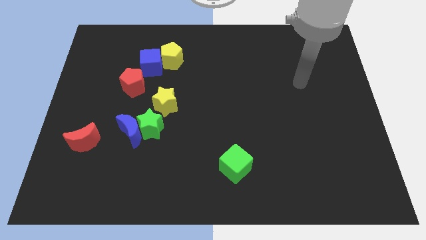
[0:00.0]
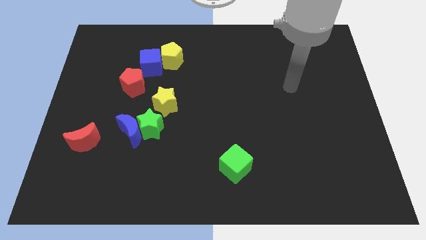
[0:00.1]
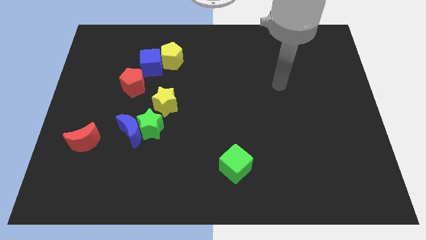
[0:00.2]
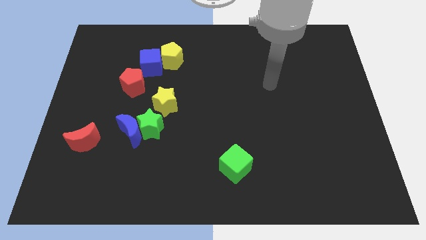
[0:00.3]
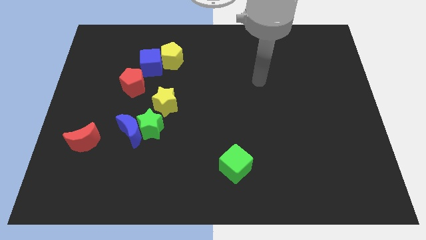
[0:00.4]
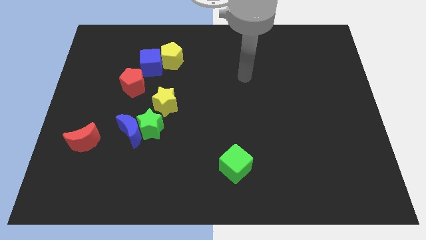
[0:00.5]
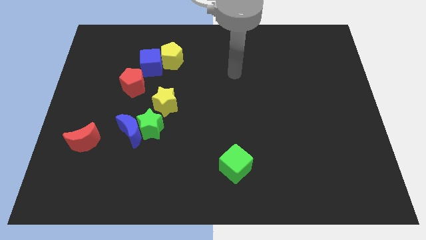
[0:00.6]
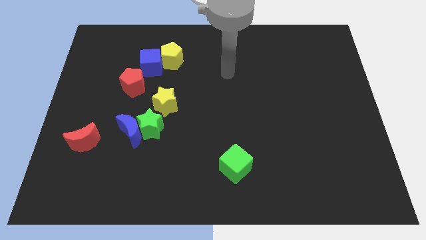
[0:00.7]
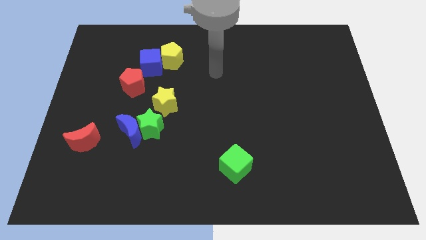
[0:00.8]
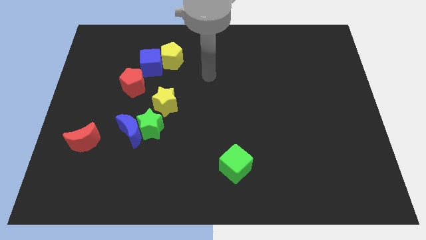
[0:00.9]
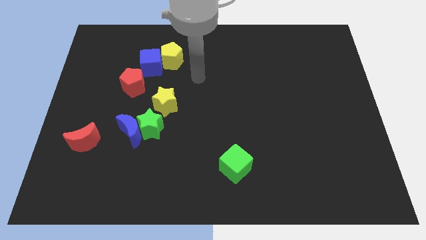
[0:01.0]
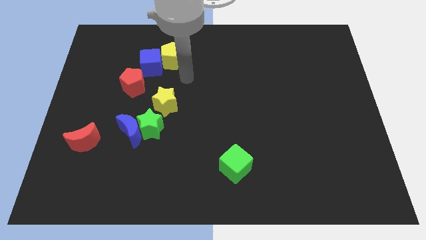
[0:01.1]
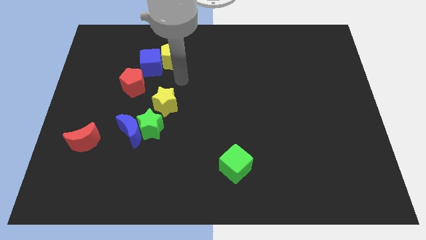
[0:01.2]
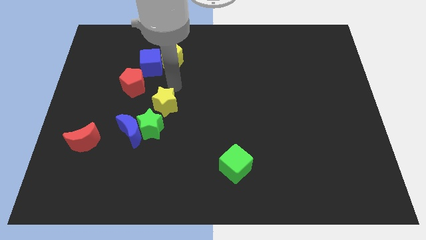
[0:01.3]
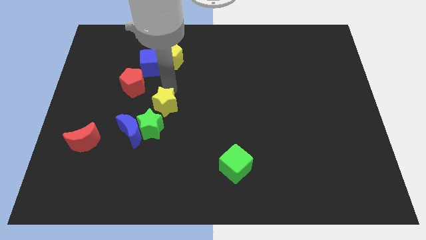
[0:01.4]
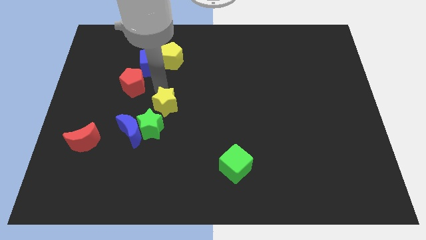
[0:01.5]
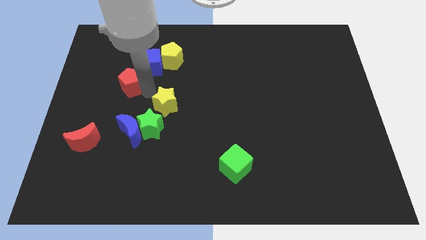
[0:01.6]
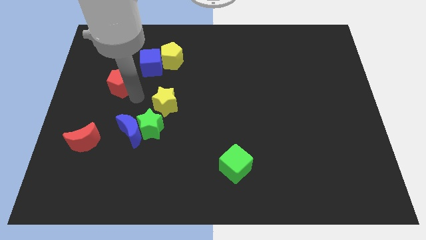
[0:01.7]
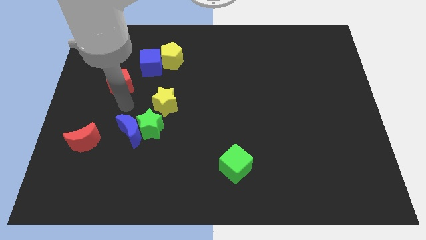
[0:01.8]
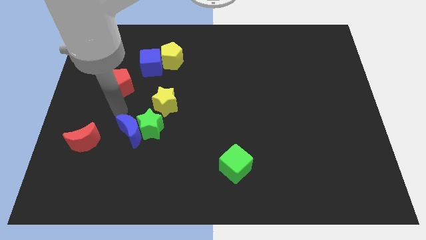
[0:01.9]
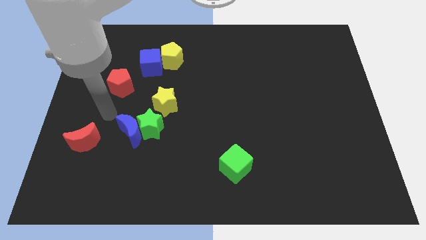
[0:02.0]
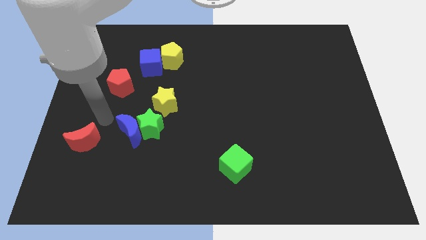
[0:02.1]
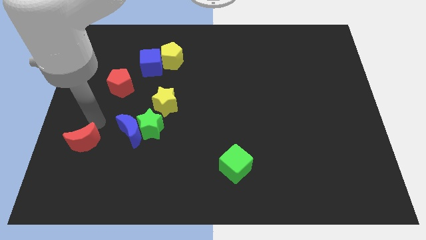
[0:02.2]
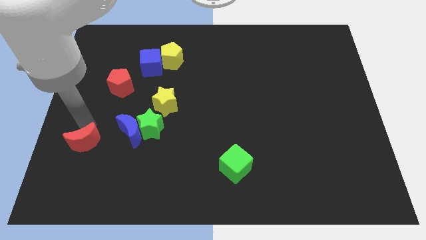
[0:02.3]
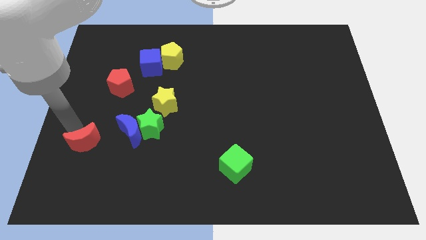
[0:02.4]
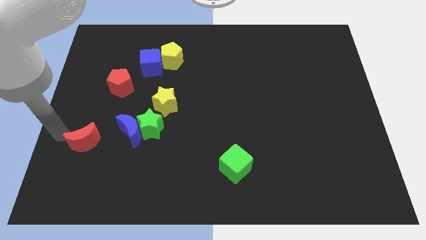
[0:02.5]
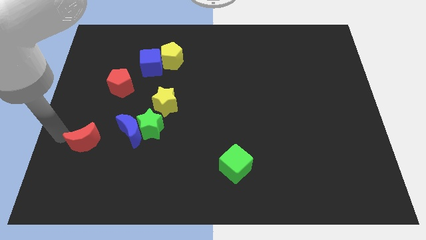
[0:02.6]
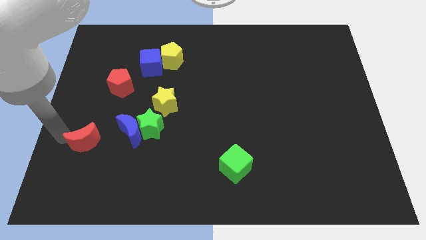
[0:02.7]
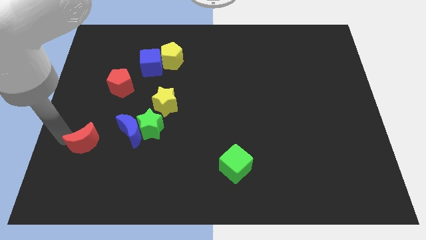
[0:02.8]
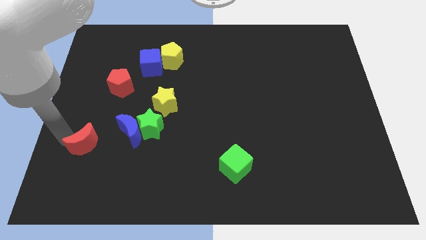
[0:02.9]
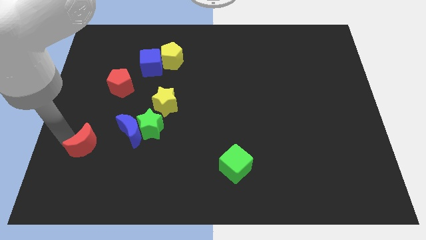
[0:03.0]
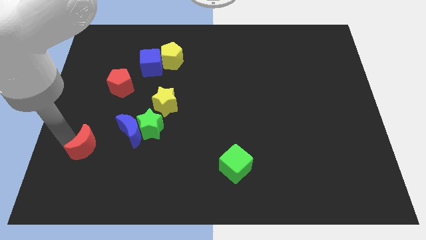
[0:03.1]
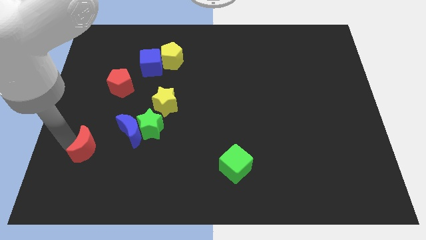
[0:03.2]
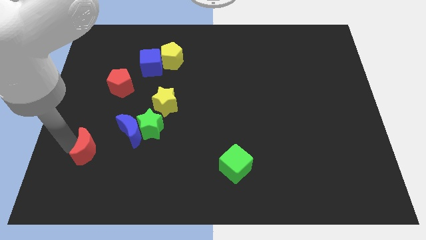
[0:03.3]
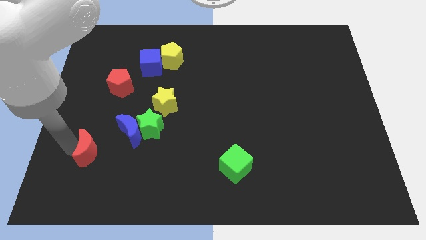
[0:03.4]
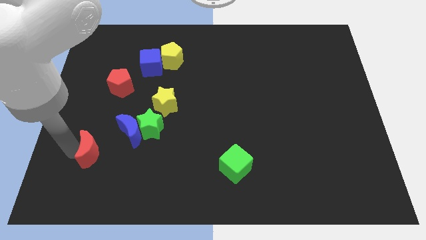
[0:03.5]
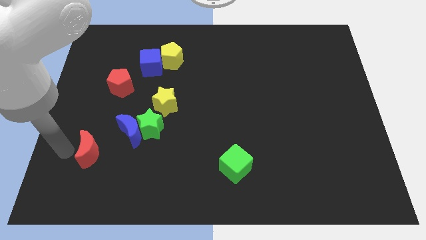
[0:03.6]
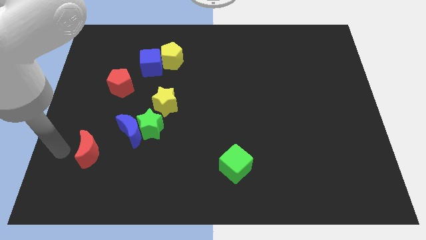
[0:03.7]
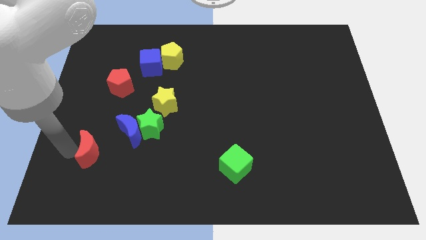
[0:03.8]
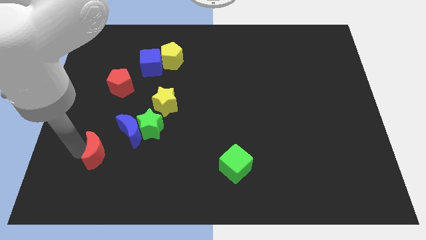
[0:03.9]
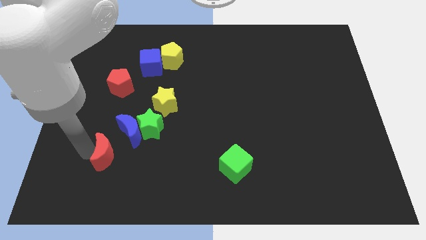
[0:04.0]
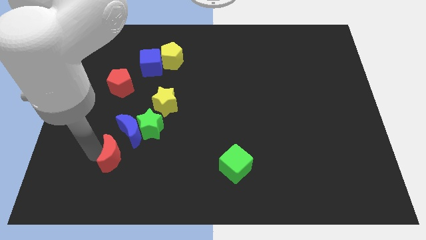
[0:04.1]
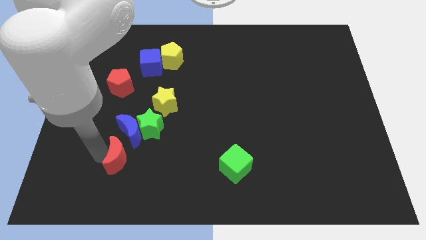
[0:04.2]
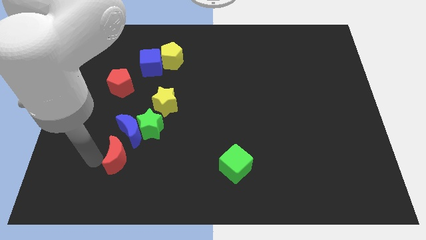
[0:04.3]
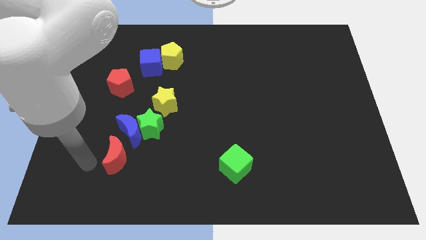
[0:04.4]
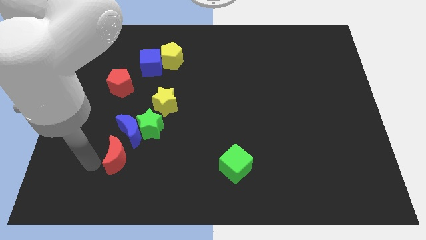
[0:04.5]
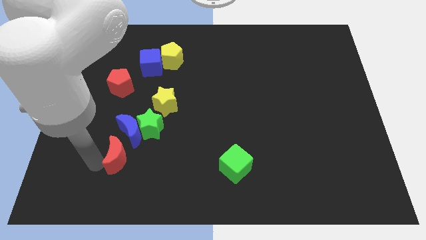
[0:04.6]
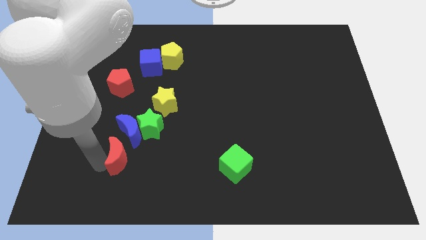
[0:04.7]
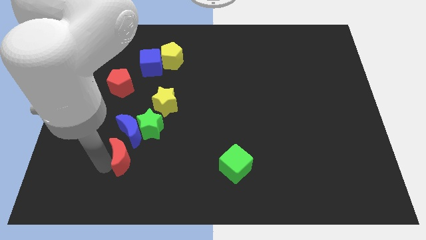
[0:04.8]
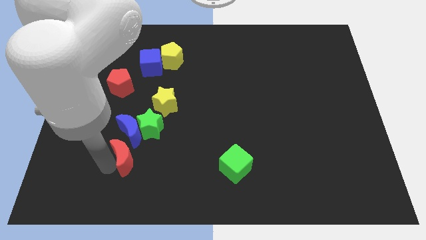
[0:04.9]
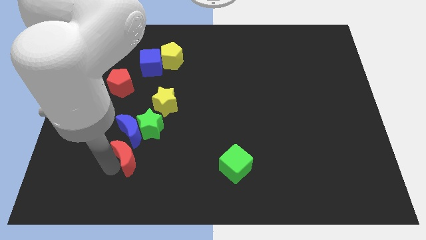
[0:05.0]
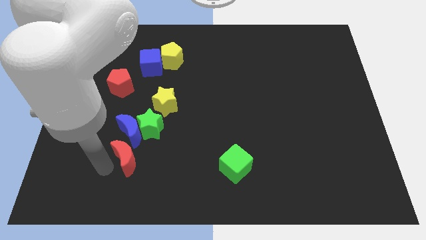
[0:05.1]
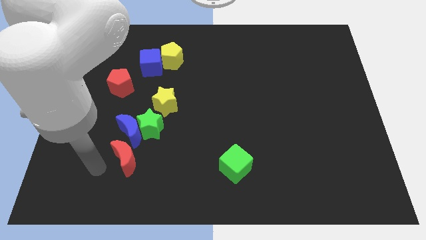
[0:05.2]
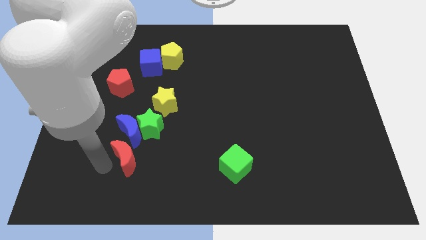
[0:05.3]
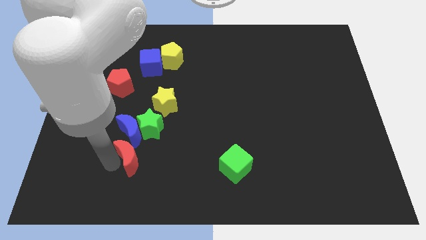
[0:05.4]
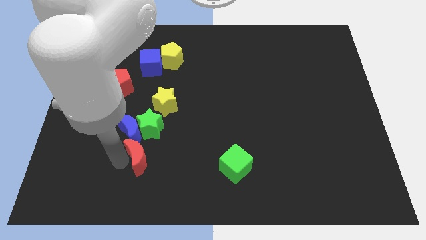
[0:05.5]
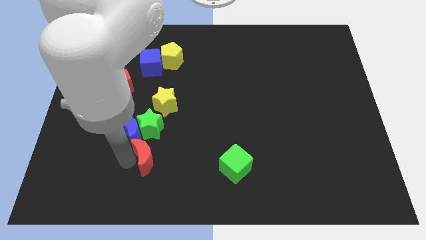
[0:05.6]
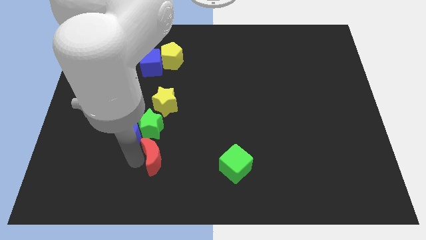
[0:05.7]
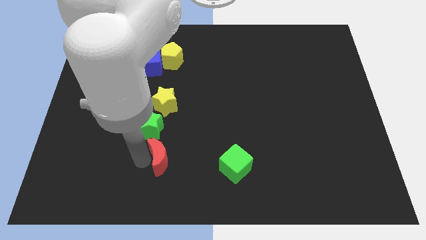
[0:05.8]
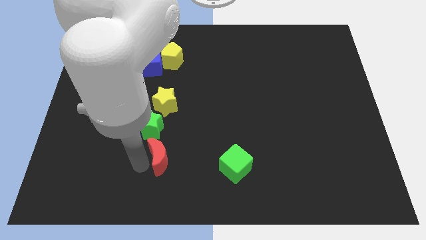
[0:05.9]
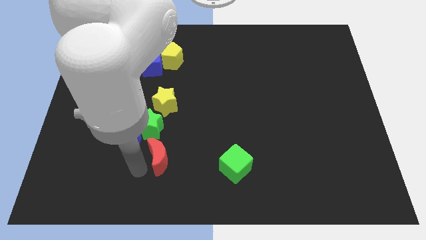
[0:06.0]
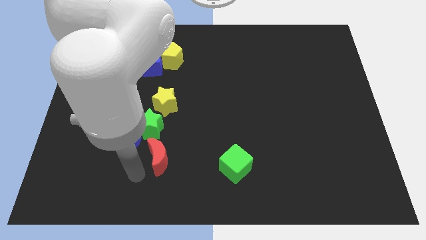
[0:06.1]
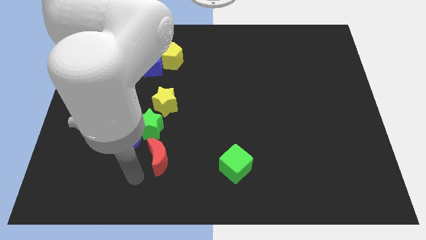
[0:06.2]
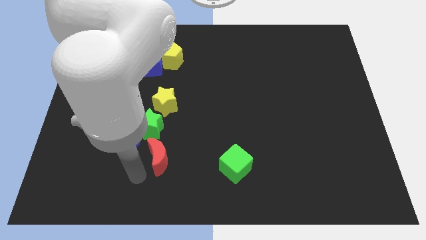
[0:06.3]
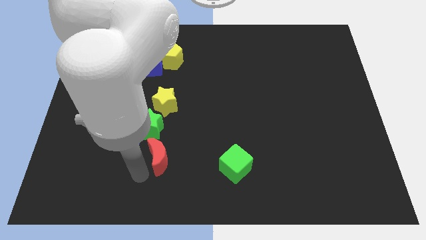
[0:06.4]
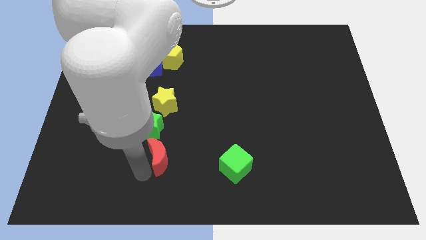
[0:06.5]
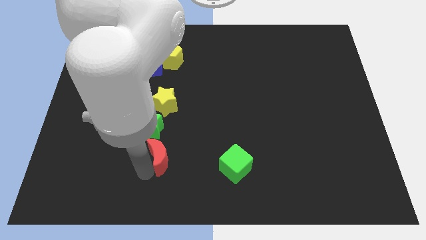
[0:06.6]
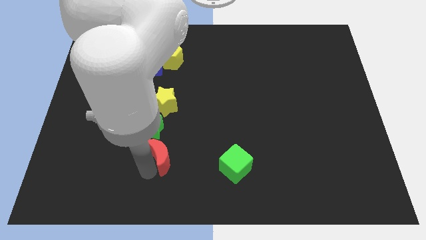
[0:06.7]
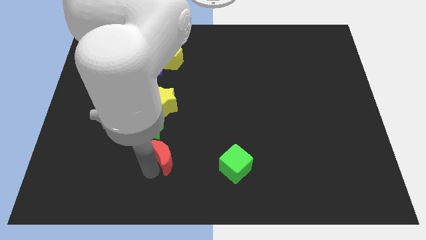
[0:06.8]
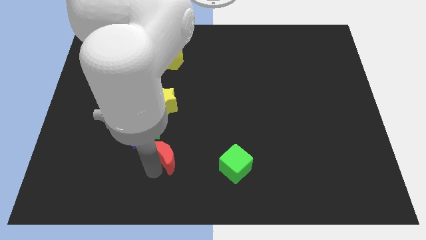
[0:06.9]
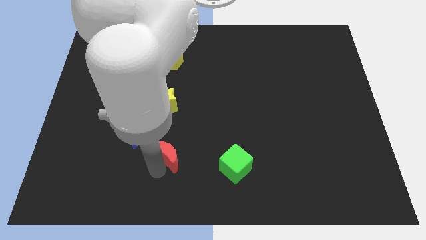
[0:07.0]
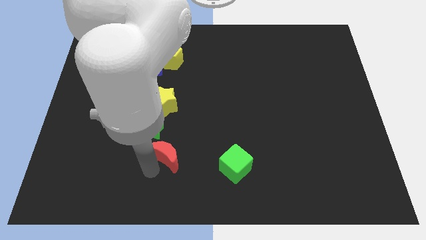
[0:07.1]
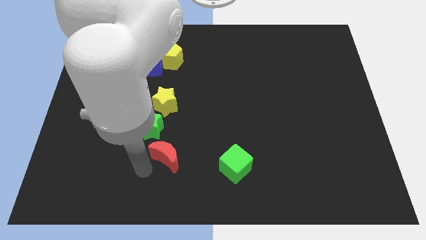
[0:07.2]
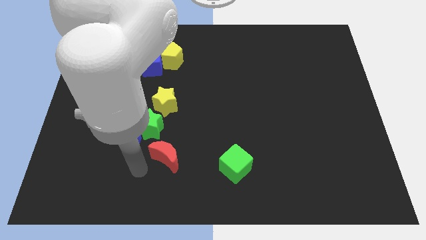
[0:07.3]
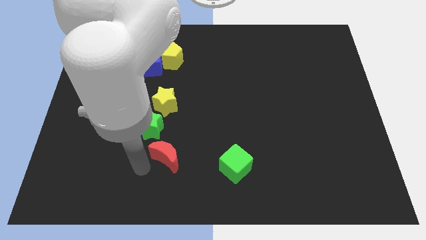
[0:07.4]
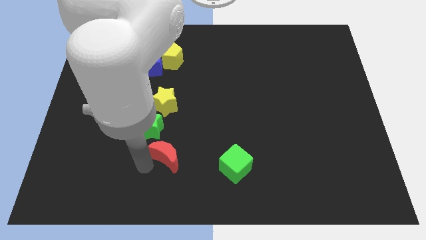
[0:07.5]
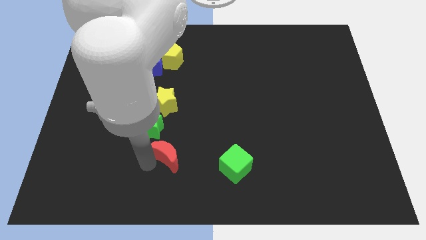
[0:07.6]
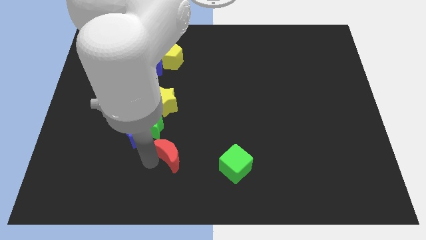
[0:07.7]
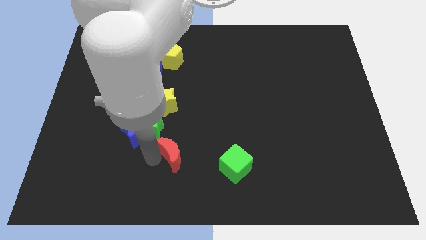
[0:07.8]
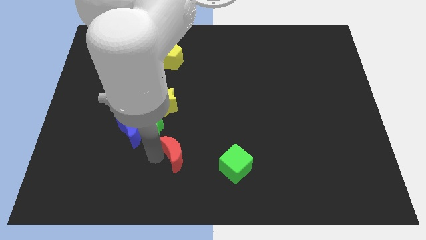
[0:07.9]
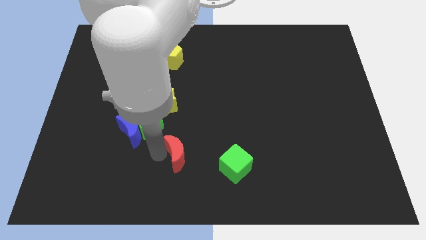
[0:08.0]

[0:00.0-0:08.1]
push the red moon right
